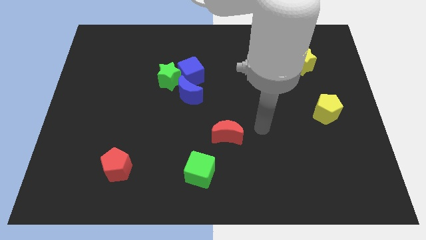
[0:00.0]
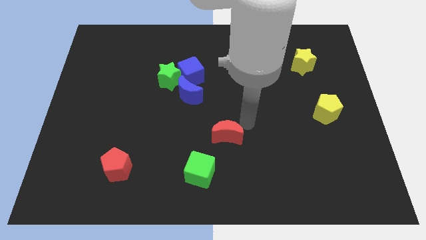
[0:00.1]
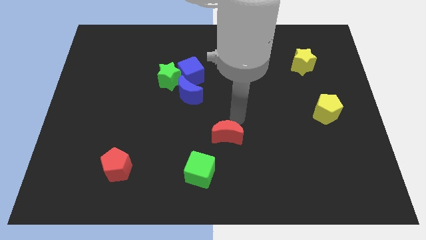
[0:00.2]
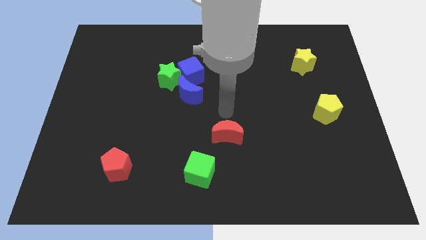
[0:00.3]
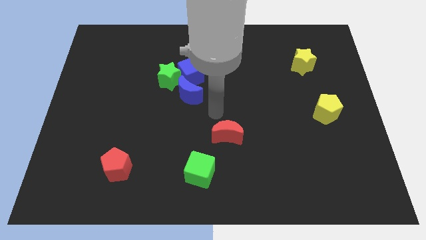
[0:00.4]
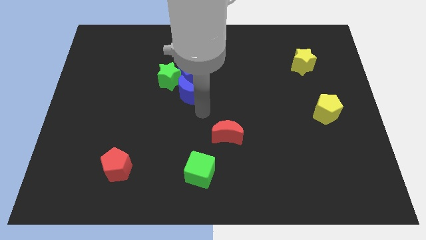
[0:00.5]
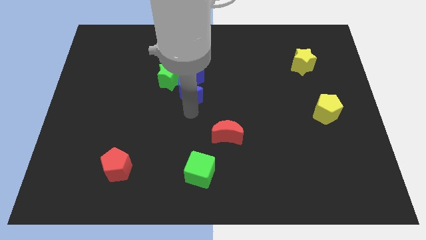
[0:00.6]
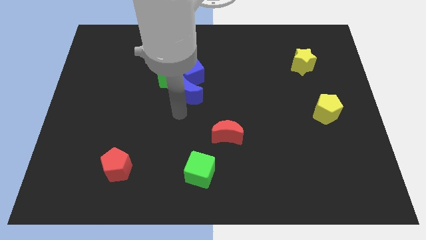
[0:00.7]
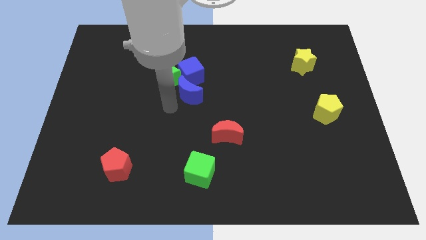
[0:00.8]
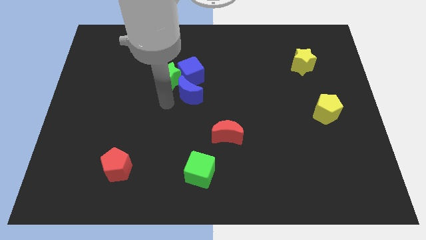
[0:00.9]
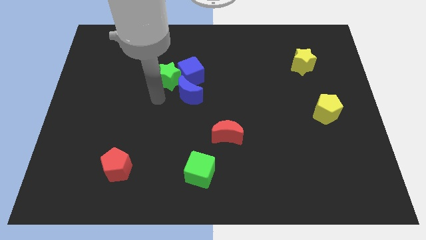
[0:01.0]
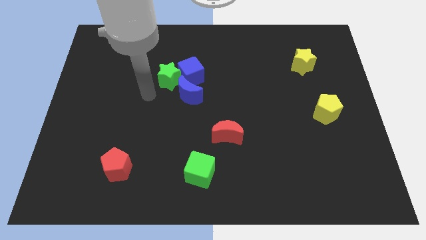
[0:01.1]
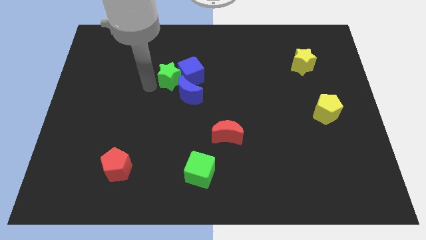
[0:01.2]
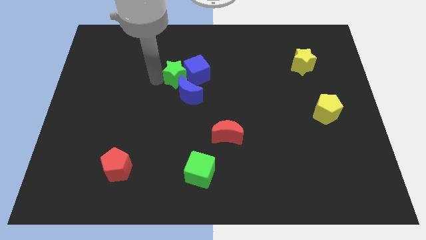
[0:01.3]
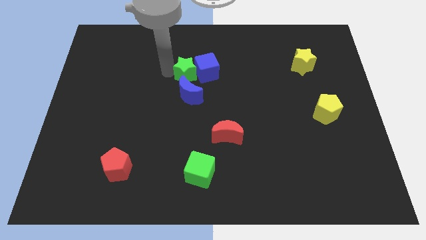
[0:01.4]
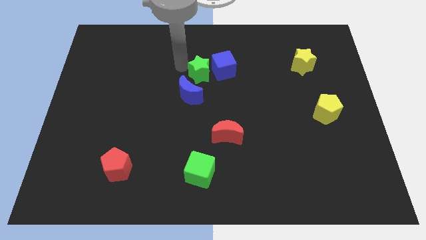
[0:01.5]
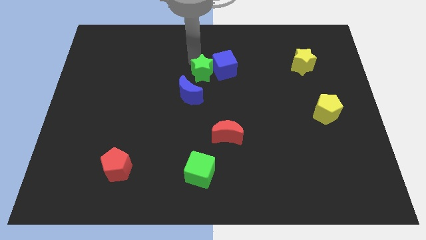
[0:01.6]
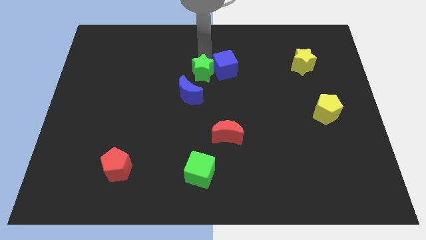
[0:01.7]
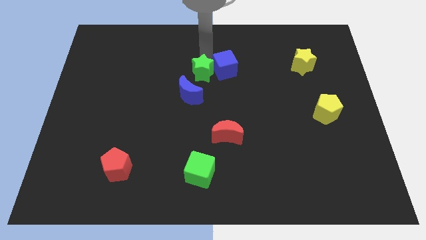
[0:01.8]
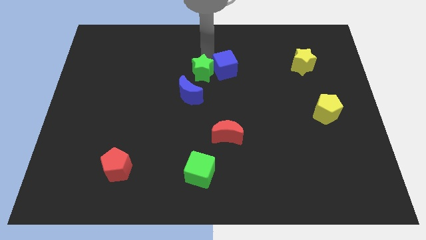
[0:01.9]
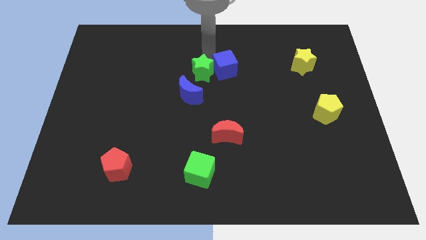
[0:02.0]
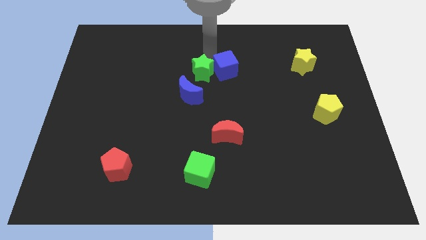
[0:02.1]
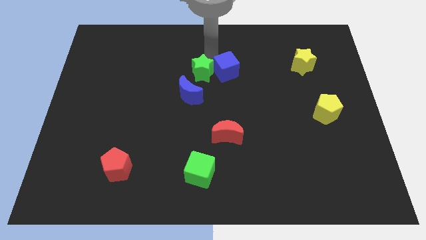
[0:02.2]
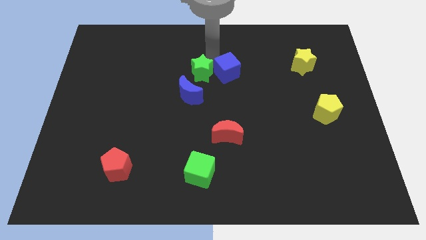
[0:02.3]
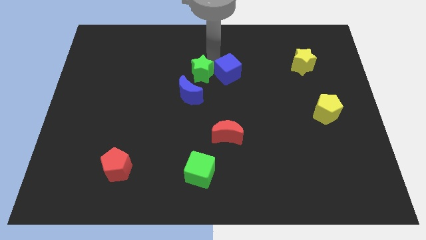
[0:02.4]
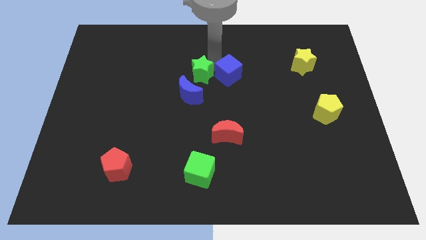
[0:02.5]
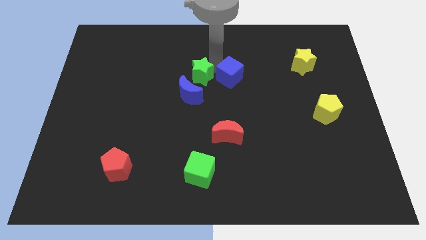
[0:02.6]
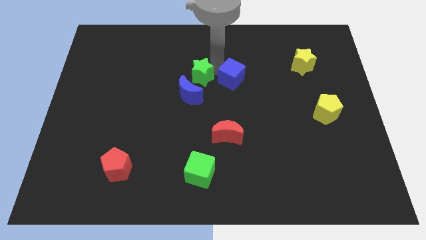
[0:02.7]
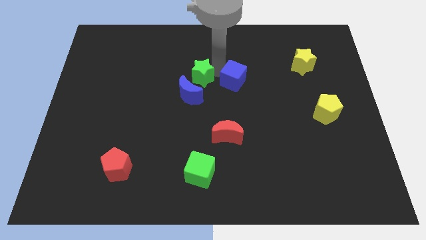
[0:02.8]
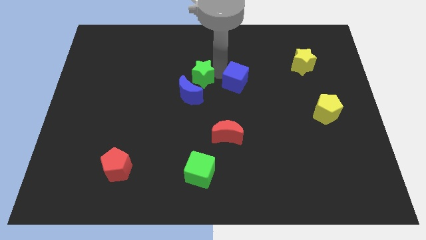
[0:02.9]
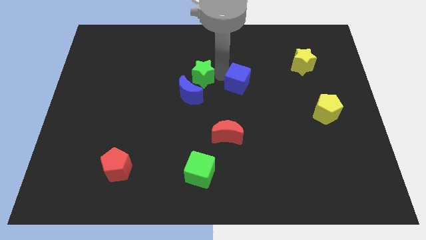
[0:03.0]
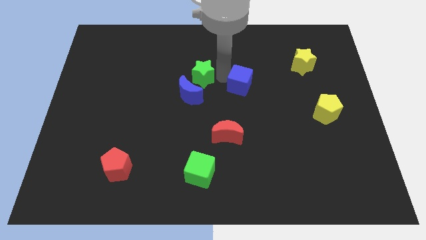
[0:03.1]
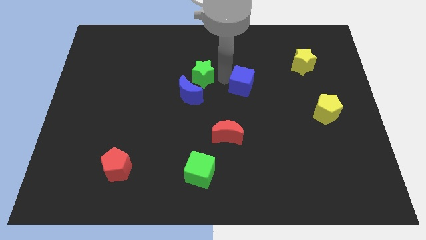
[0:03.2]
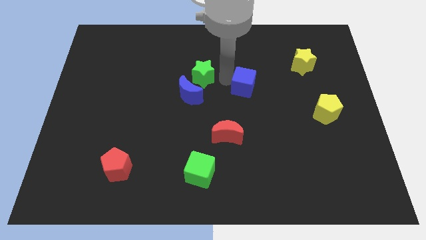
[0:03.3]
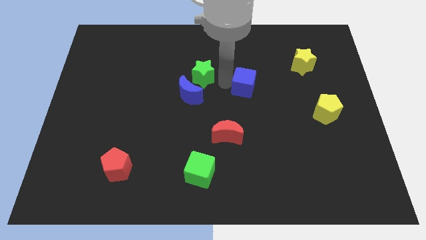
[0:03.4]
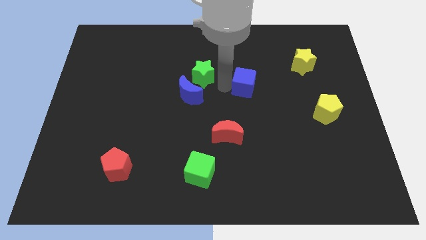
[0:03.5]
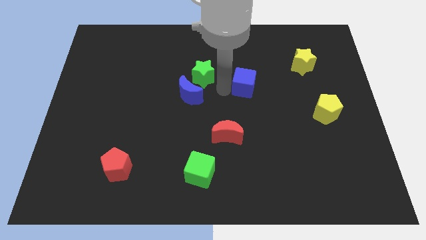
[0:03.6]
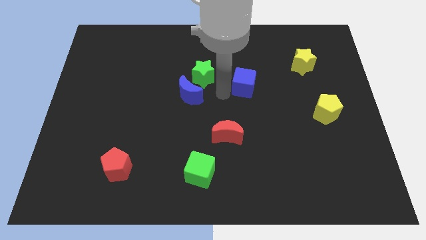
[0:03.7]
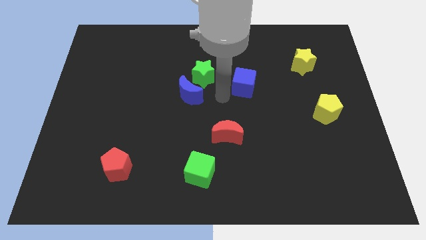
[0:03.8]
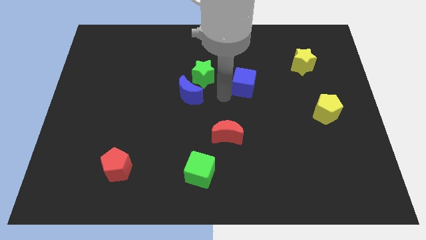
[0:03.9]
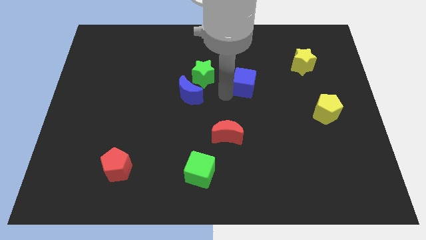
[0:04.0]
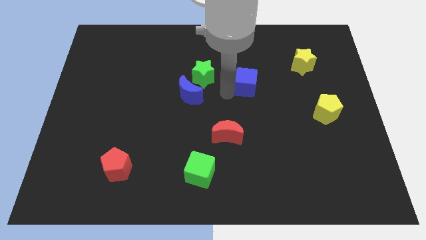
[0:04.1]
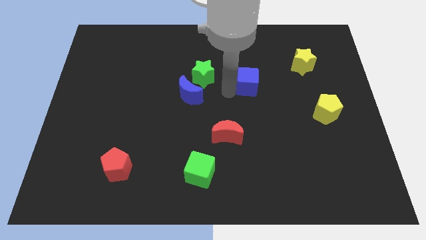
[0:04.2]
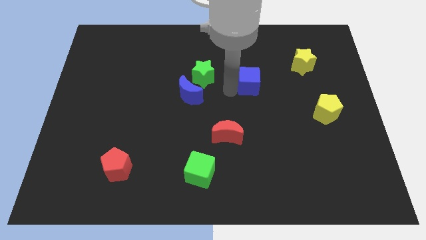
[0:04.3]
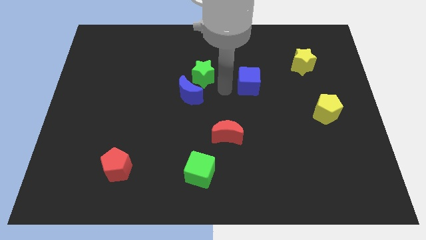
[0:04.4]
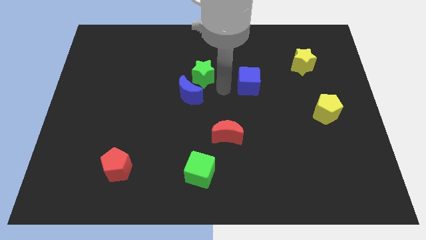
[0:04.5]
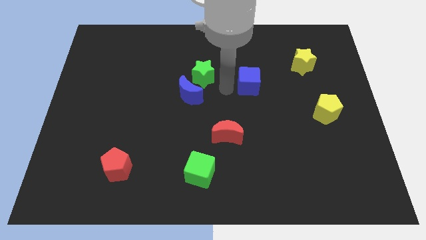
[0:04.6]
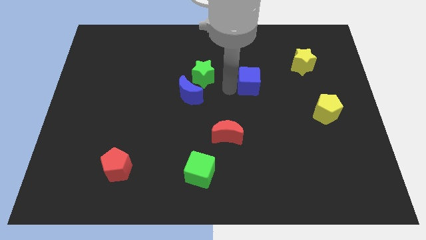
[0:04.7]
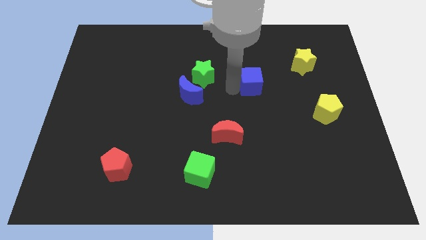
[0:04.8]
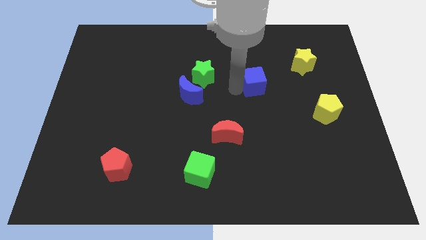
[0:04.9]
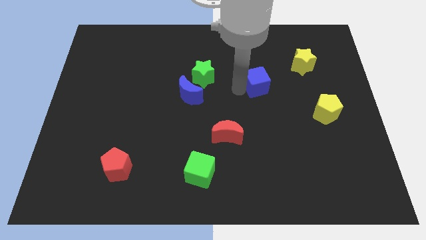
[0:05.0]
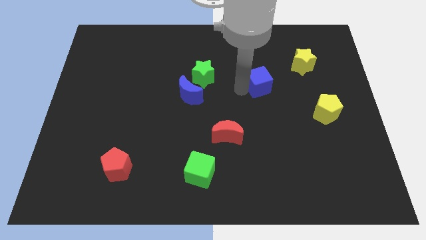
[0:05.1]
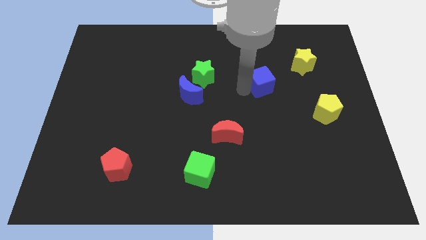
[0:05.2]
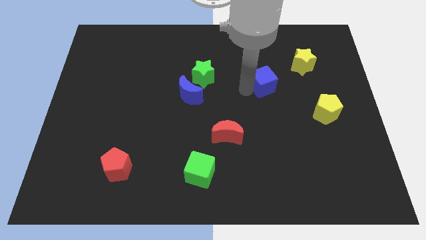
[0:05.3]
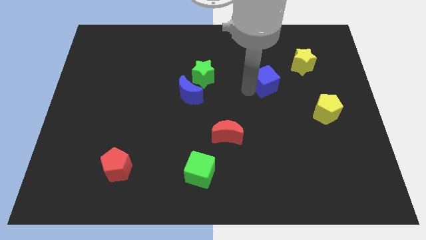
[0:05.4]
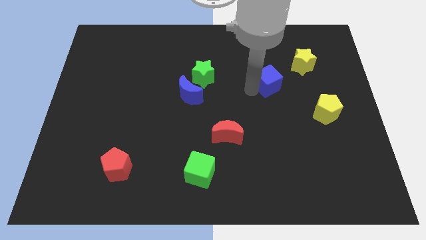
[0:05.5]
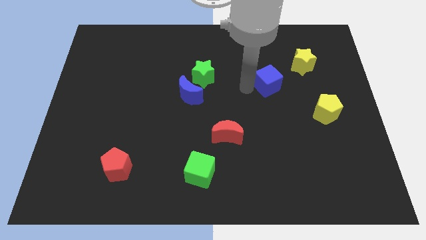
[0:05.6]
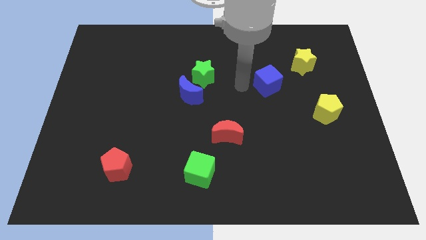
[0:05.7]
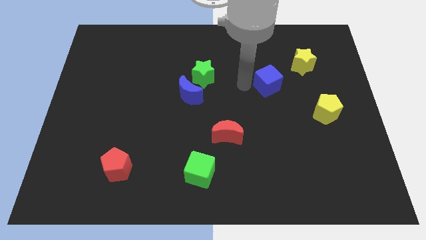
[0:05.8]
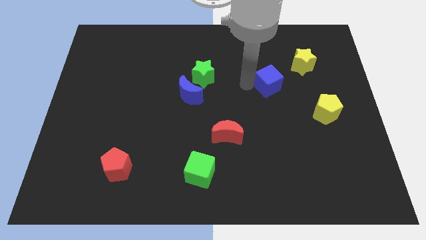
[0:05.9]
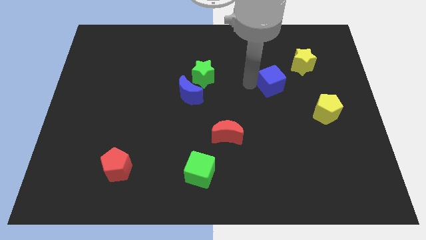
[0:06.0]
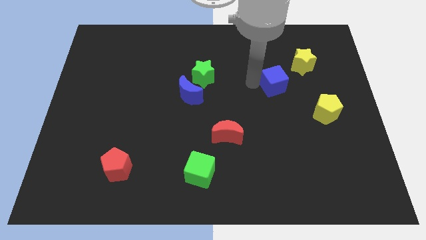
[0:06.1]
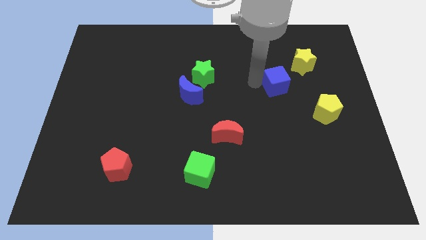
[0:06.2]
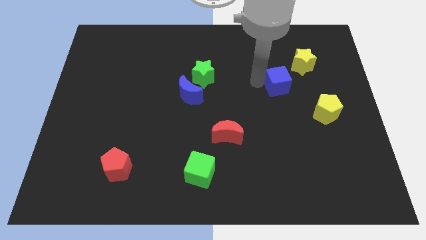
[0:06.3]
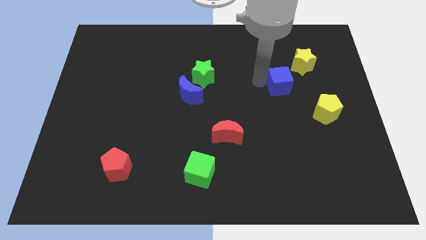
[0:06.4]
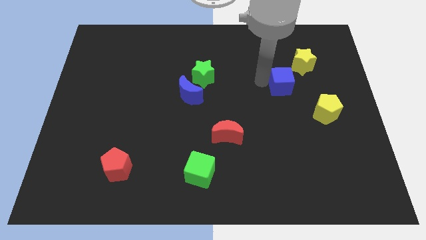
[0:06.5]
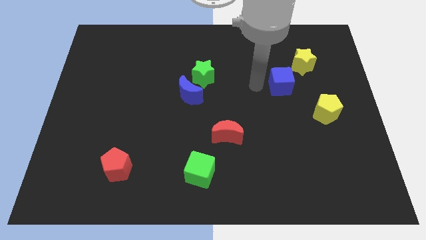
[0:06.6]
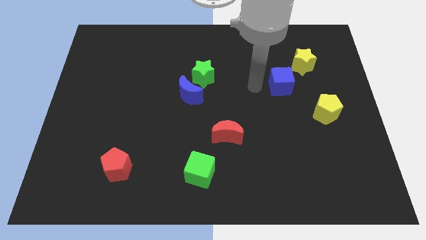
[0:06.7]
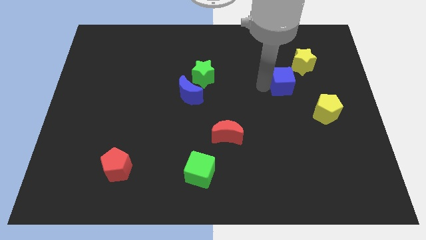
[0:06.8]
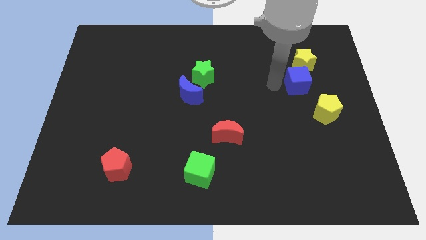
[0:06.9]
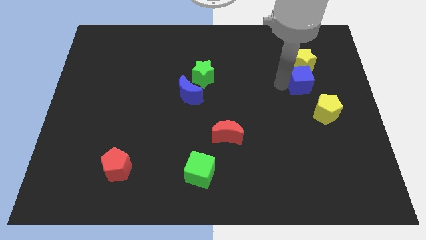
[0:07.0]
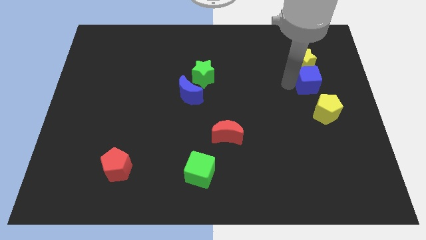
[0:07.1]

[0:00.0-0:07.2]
move the blue cube to the bottom right of the yellow star
